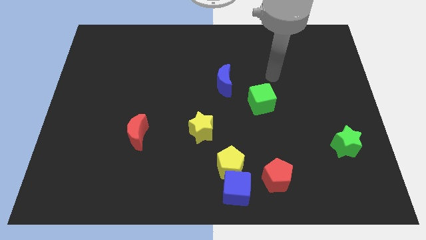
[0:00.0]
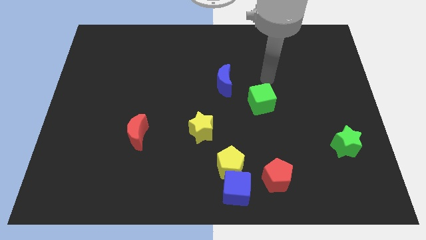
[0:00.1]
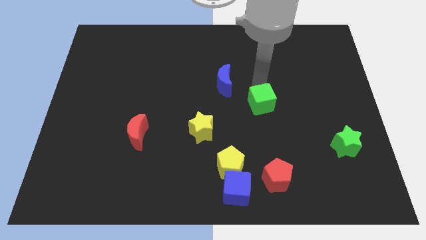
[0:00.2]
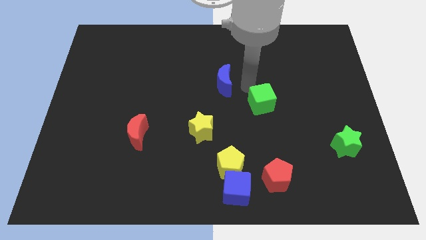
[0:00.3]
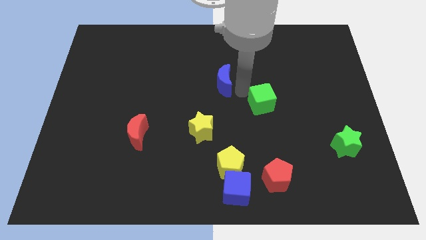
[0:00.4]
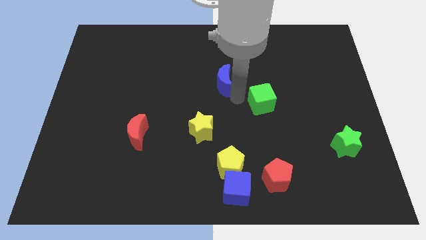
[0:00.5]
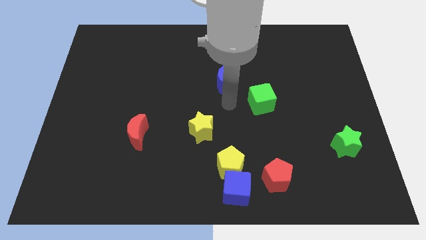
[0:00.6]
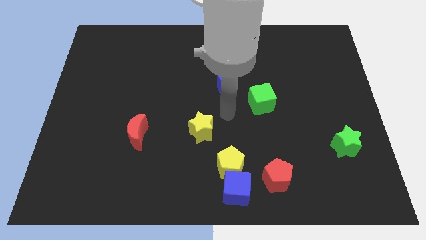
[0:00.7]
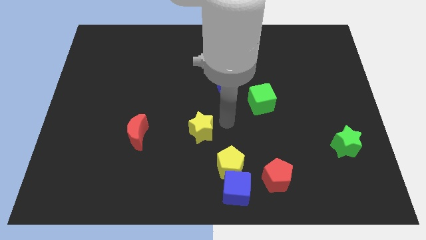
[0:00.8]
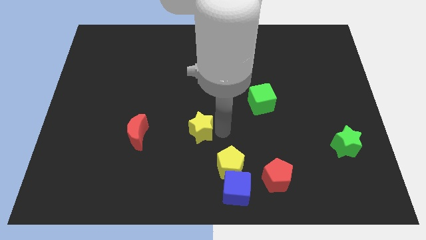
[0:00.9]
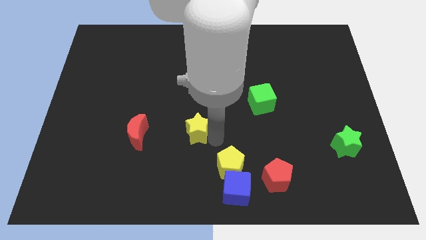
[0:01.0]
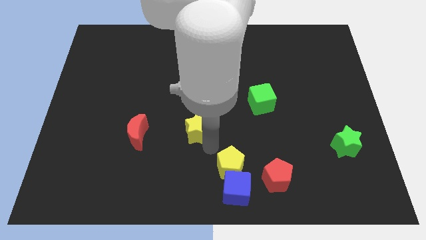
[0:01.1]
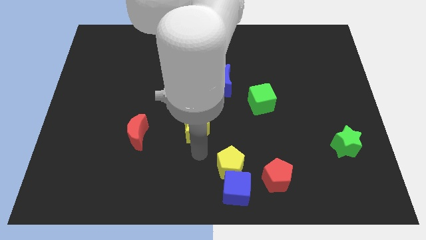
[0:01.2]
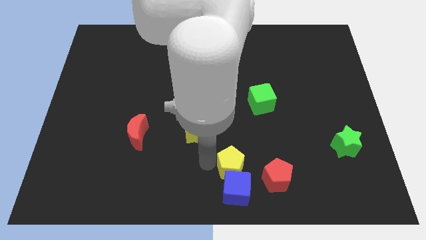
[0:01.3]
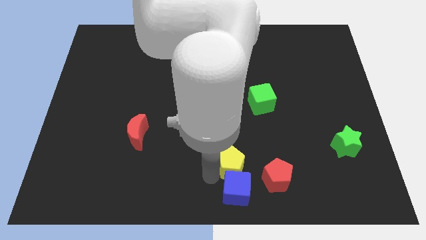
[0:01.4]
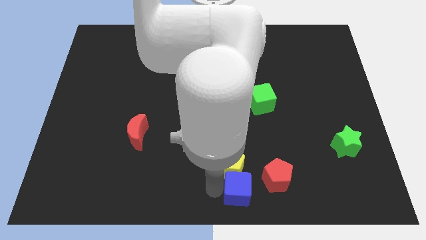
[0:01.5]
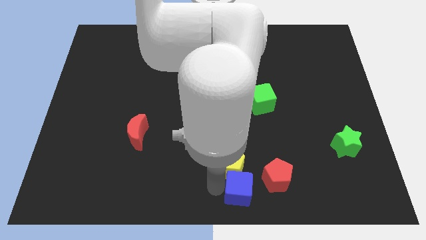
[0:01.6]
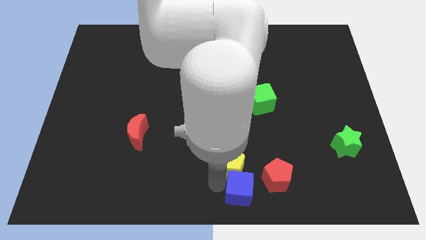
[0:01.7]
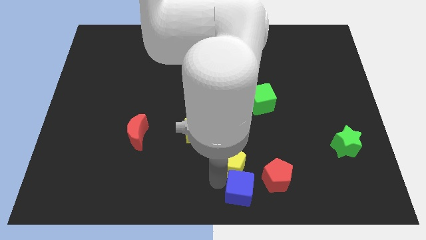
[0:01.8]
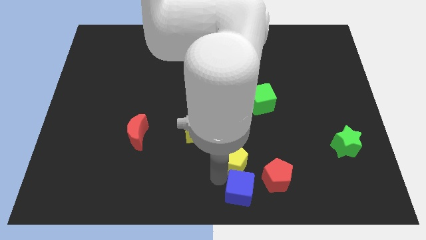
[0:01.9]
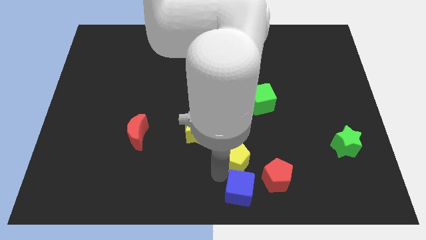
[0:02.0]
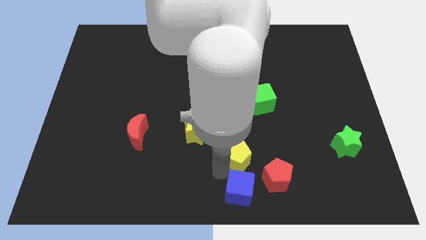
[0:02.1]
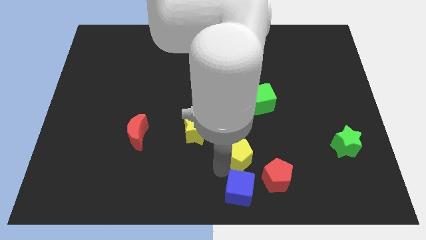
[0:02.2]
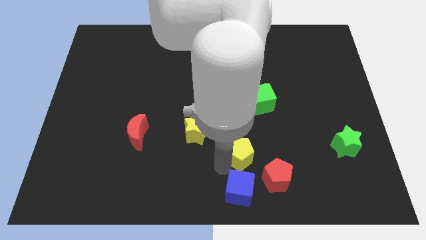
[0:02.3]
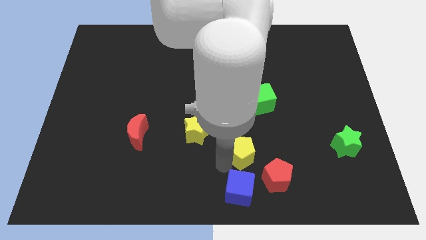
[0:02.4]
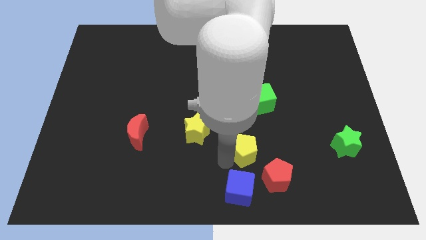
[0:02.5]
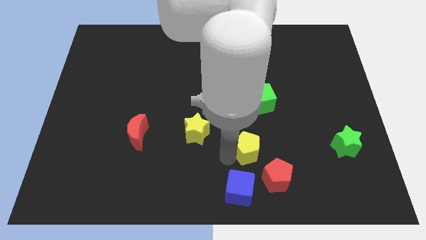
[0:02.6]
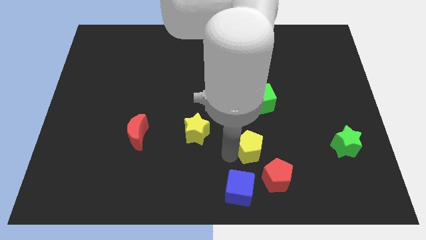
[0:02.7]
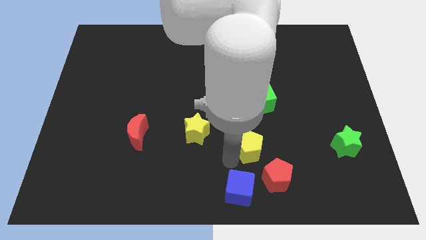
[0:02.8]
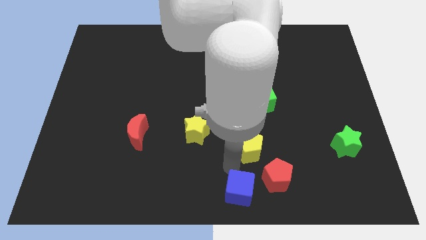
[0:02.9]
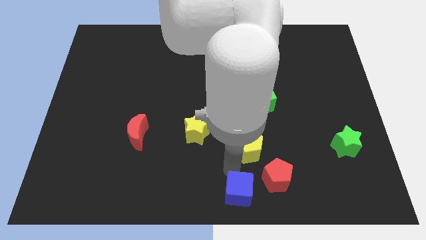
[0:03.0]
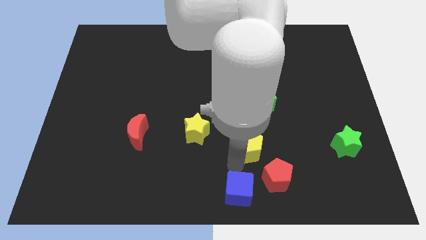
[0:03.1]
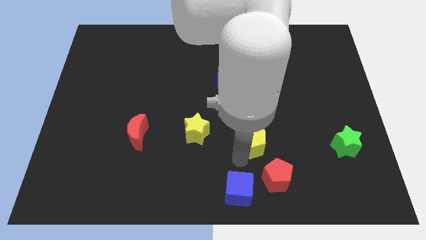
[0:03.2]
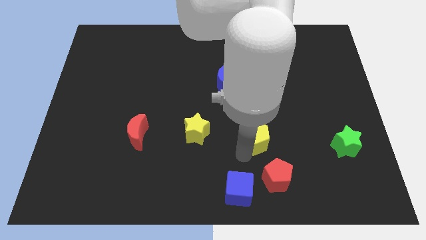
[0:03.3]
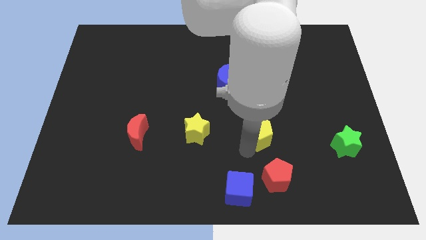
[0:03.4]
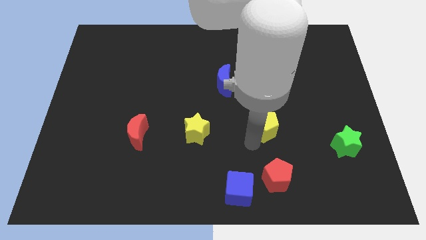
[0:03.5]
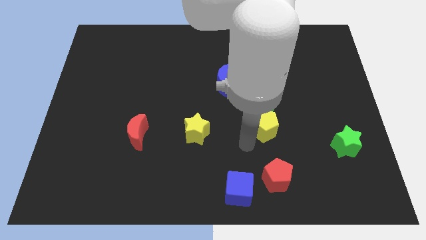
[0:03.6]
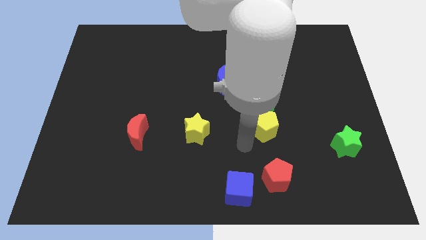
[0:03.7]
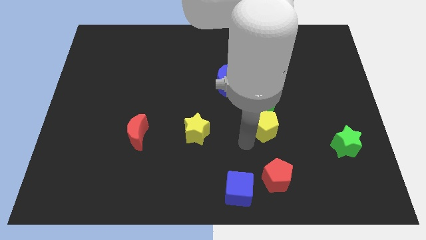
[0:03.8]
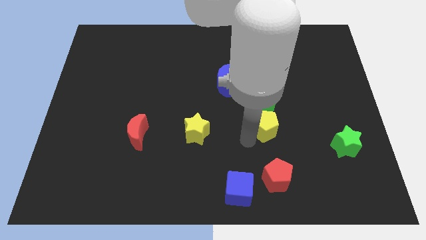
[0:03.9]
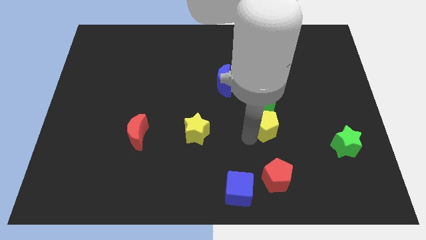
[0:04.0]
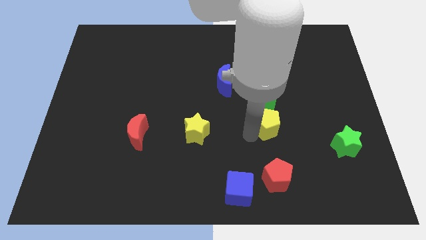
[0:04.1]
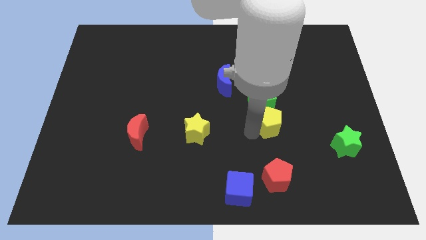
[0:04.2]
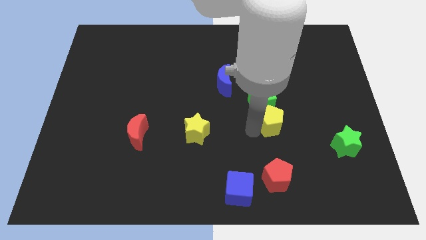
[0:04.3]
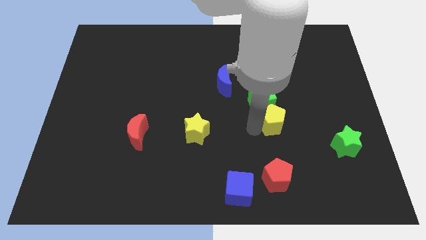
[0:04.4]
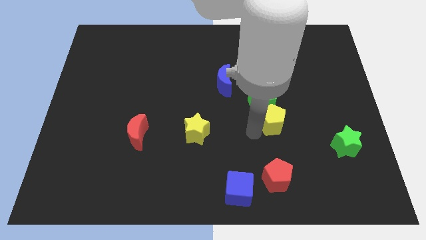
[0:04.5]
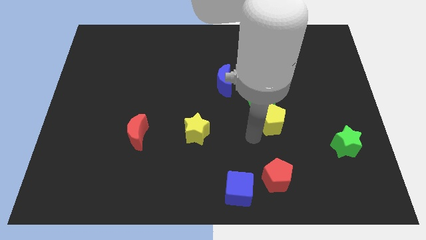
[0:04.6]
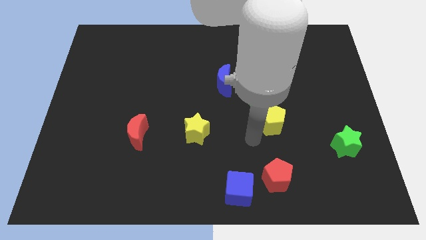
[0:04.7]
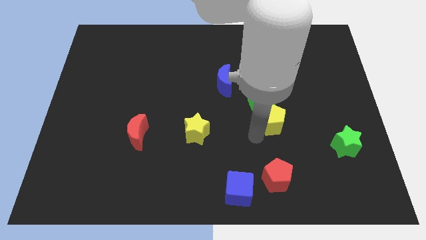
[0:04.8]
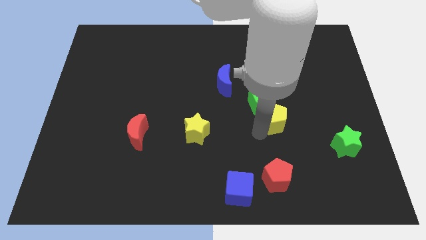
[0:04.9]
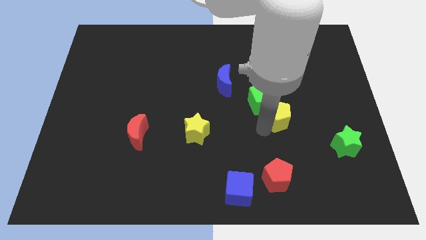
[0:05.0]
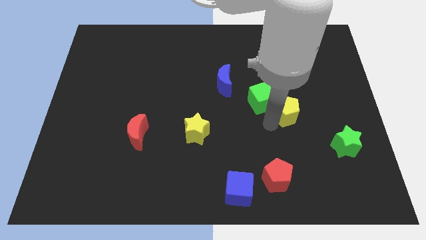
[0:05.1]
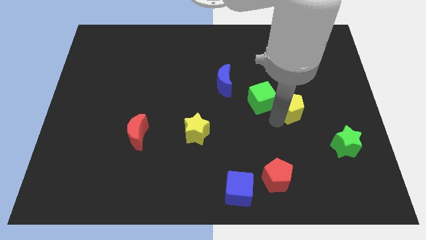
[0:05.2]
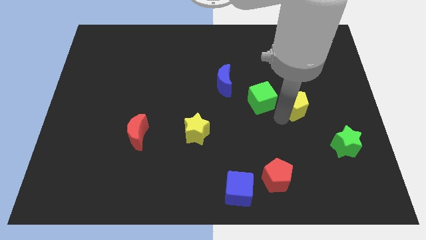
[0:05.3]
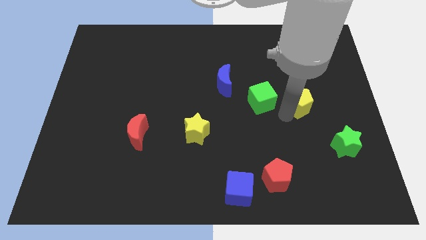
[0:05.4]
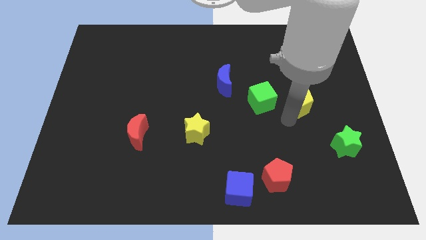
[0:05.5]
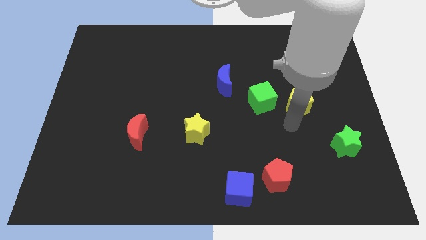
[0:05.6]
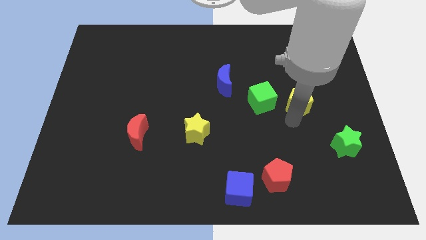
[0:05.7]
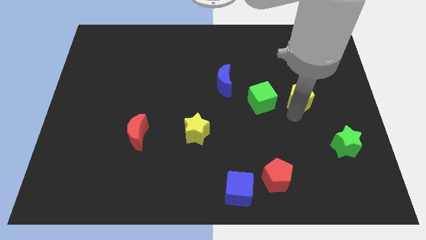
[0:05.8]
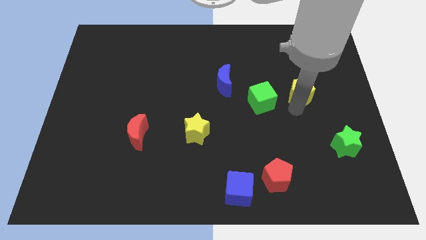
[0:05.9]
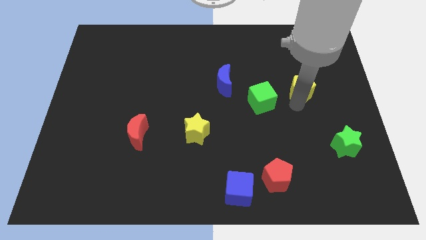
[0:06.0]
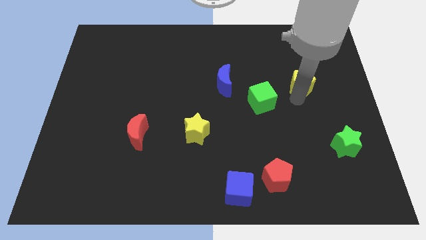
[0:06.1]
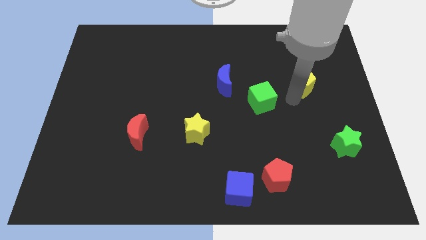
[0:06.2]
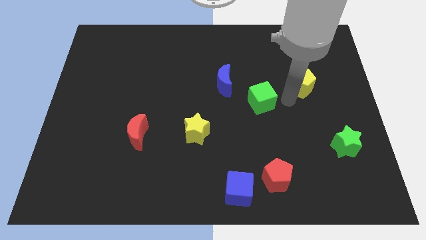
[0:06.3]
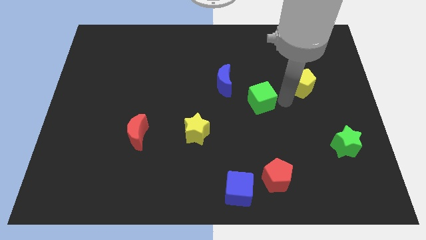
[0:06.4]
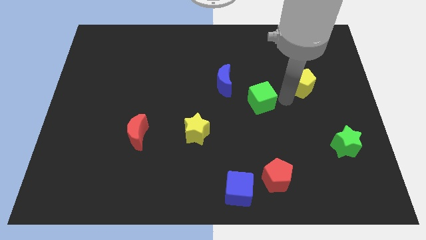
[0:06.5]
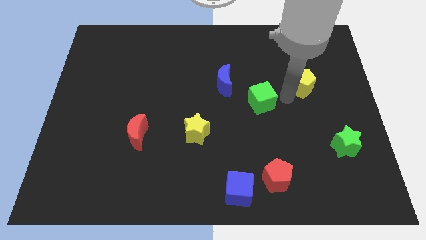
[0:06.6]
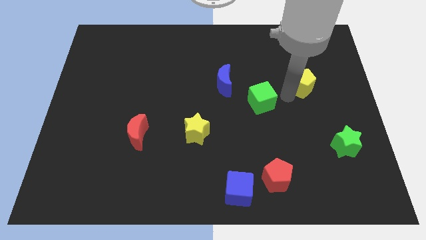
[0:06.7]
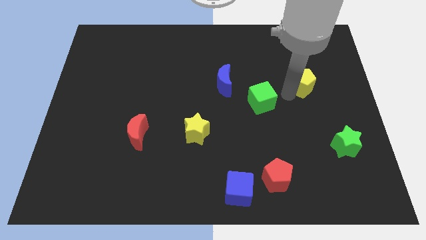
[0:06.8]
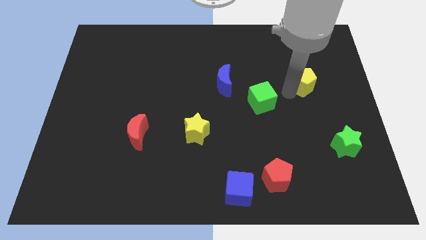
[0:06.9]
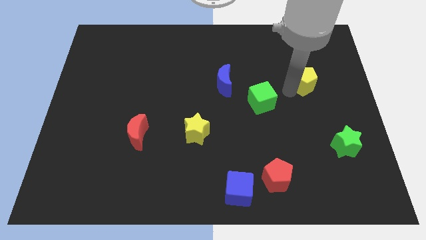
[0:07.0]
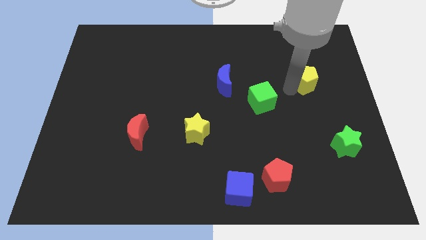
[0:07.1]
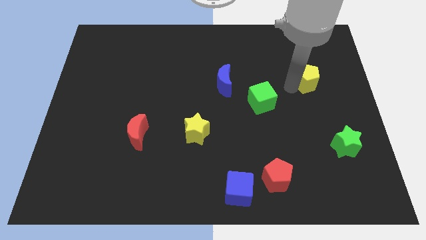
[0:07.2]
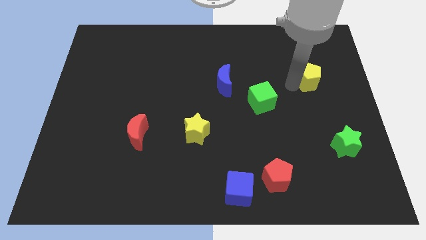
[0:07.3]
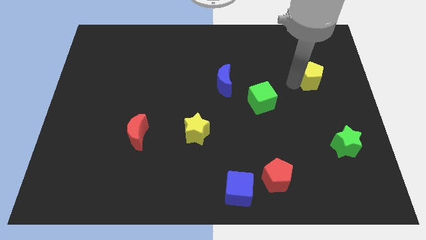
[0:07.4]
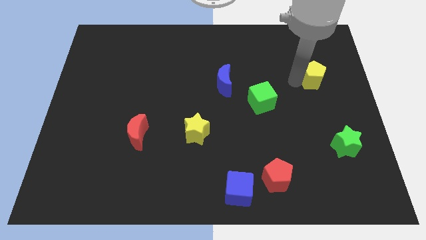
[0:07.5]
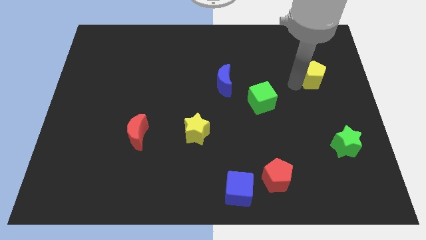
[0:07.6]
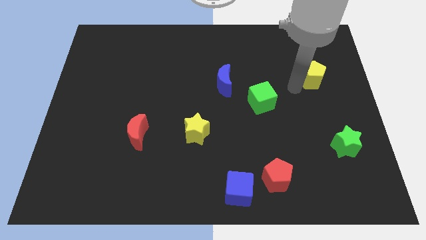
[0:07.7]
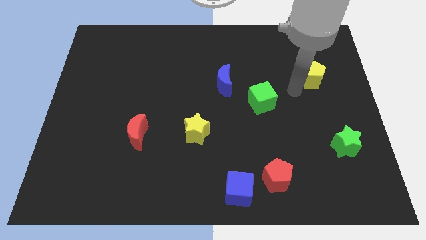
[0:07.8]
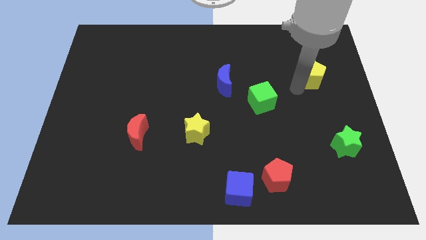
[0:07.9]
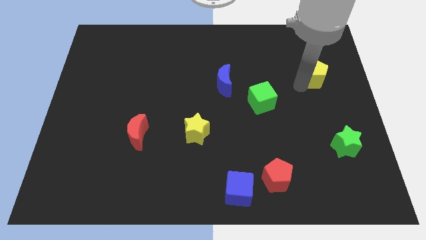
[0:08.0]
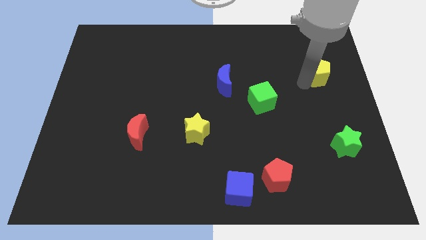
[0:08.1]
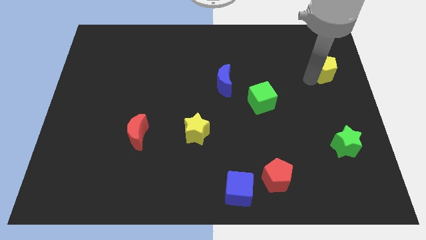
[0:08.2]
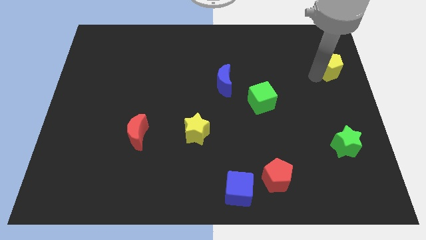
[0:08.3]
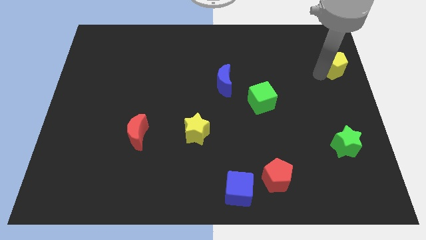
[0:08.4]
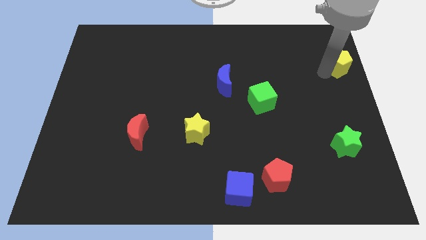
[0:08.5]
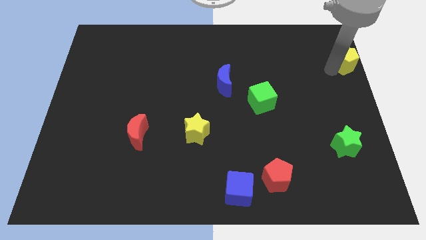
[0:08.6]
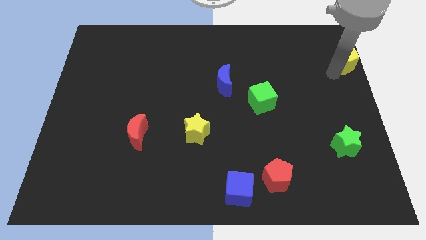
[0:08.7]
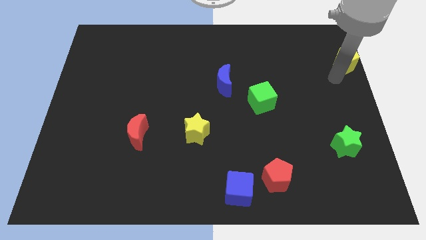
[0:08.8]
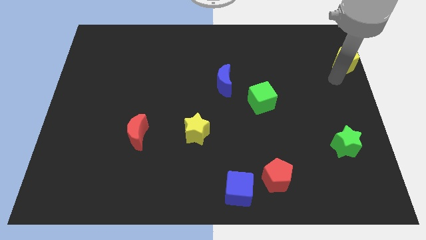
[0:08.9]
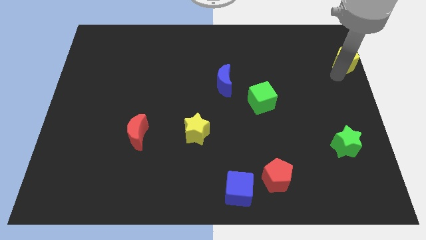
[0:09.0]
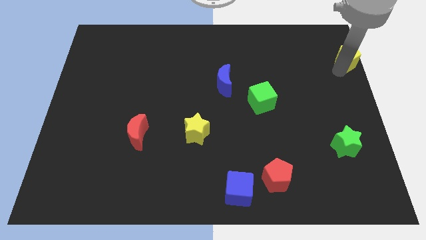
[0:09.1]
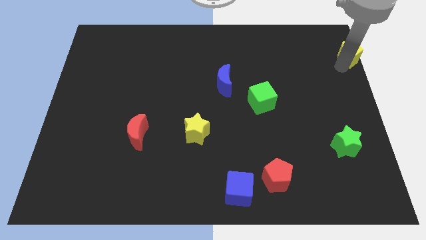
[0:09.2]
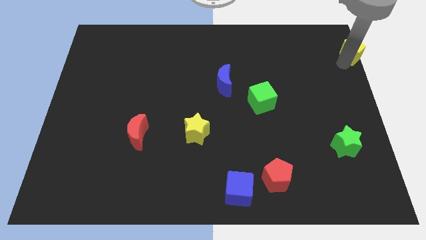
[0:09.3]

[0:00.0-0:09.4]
slide the yellow pentagon to the top right
